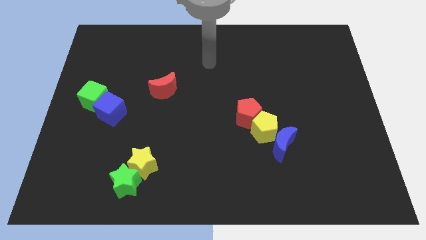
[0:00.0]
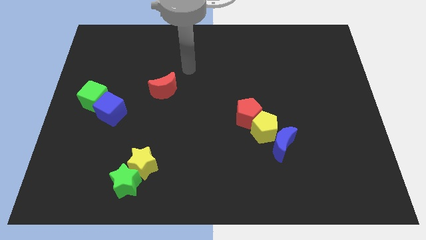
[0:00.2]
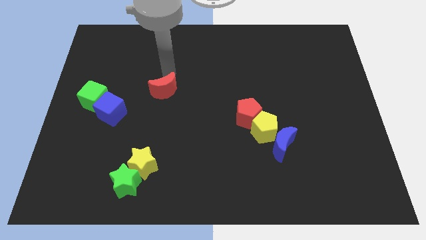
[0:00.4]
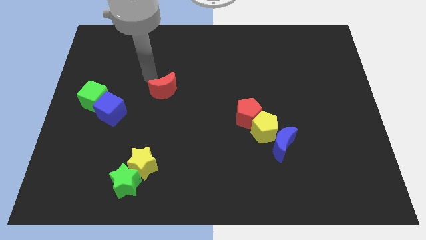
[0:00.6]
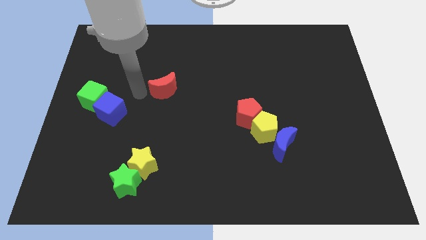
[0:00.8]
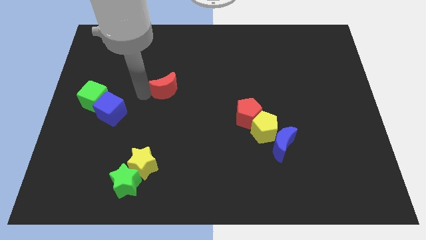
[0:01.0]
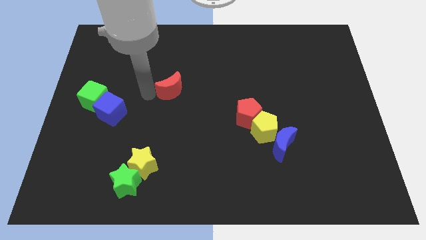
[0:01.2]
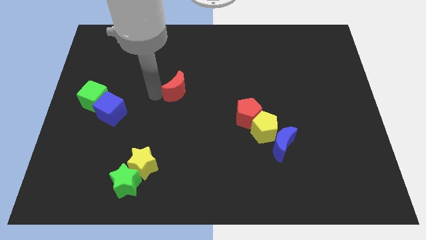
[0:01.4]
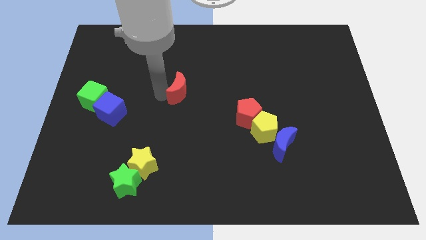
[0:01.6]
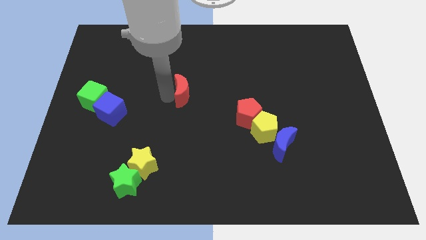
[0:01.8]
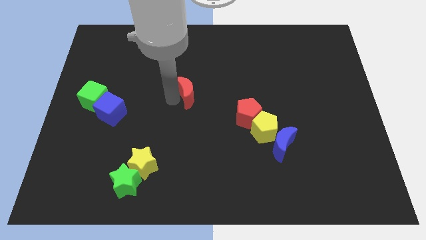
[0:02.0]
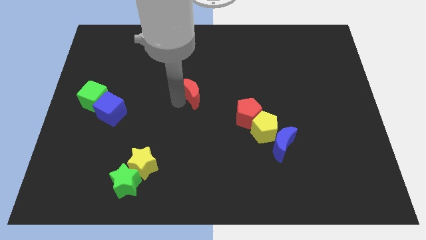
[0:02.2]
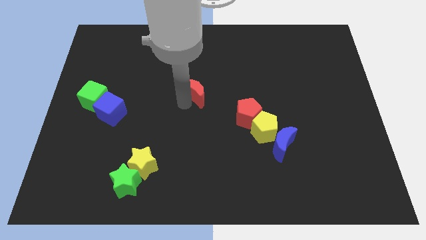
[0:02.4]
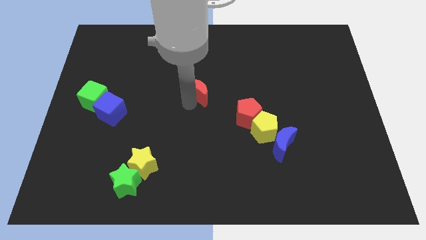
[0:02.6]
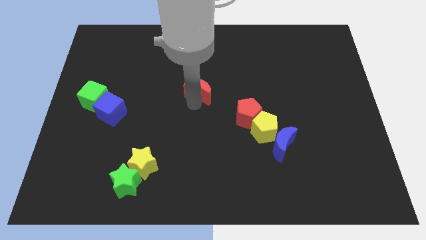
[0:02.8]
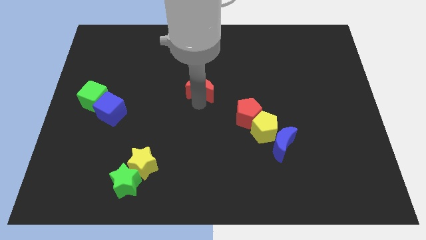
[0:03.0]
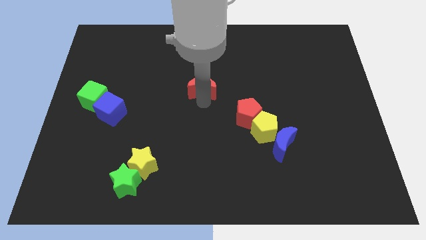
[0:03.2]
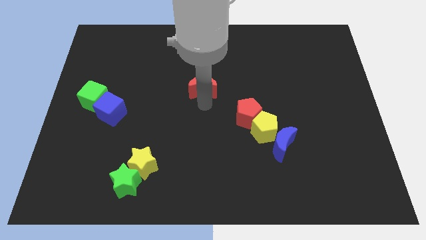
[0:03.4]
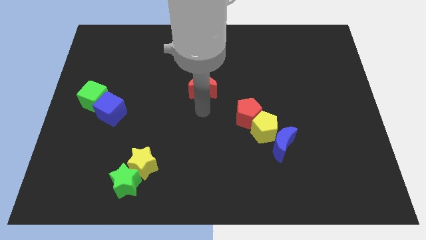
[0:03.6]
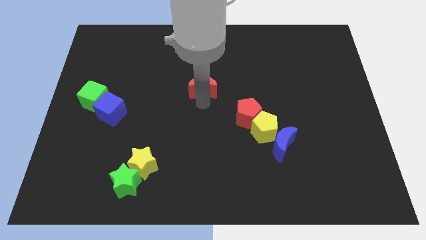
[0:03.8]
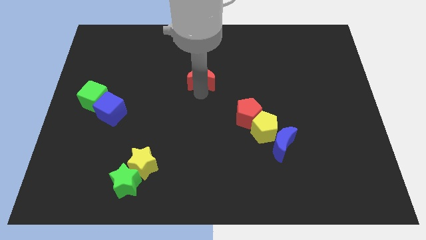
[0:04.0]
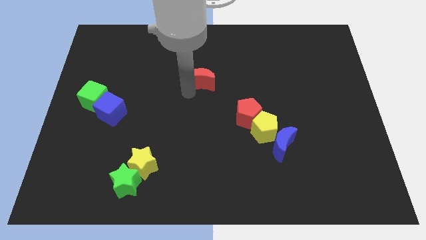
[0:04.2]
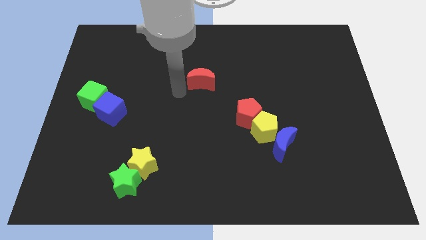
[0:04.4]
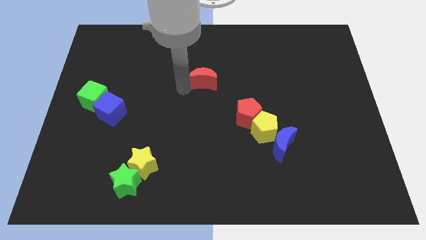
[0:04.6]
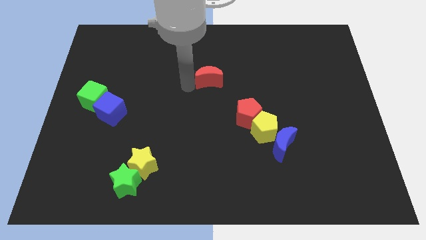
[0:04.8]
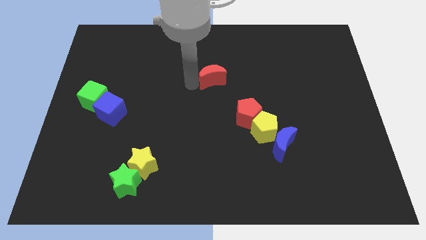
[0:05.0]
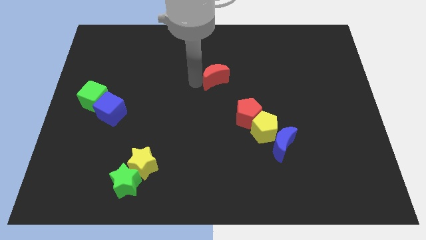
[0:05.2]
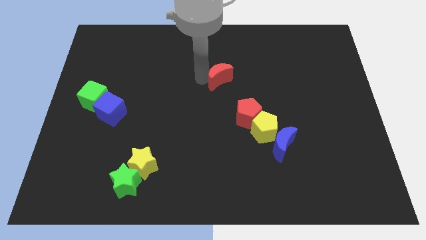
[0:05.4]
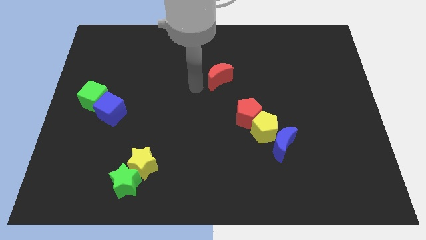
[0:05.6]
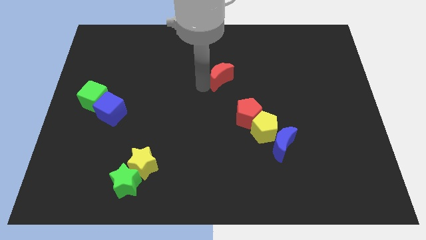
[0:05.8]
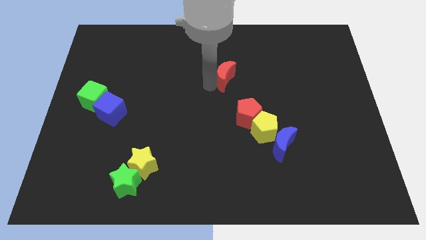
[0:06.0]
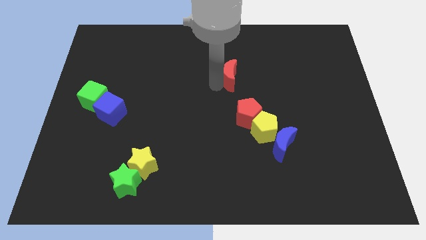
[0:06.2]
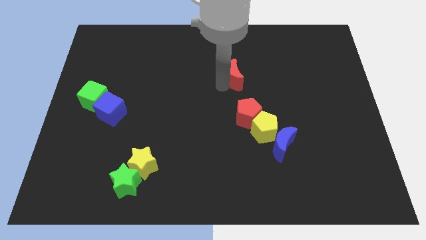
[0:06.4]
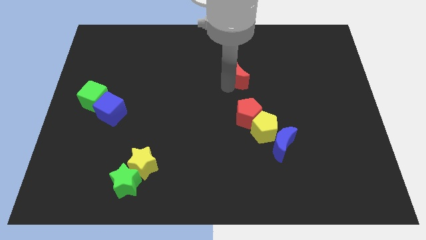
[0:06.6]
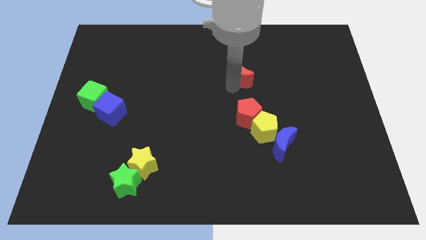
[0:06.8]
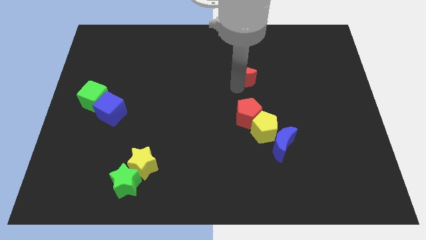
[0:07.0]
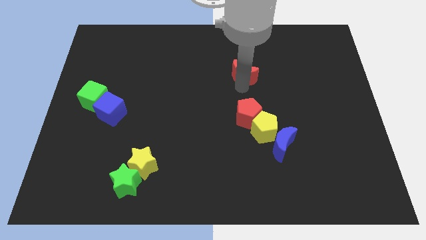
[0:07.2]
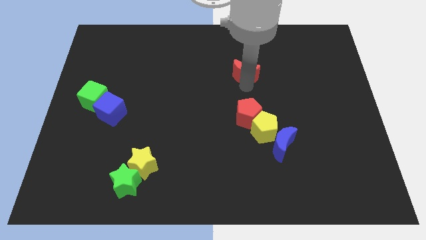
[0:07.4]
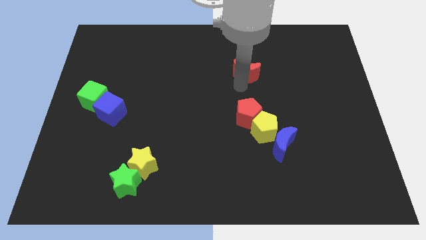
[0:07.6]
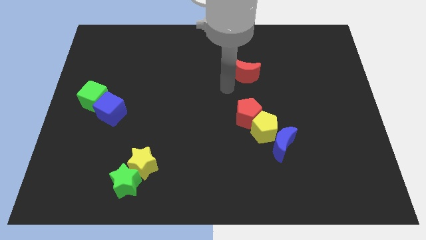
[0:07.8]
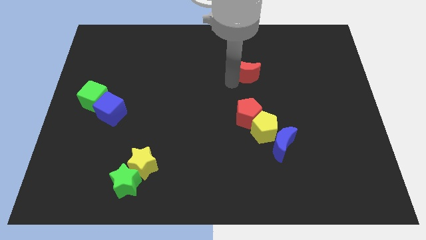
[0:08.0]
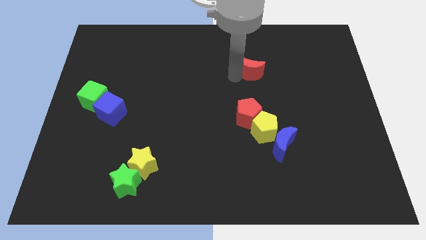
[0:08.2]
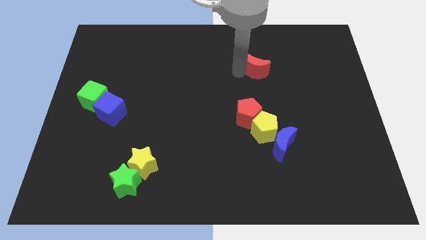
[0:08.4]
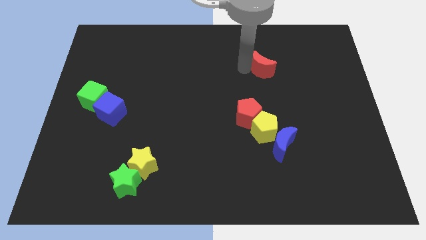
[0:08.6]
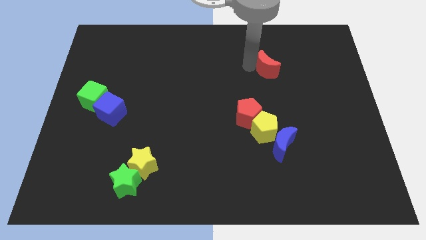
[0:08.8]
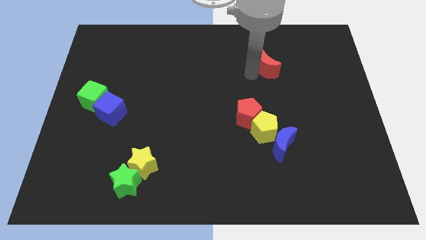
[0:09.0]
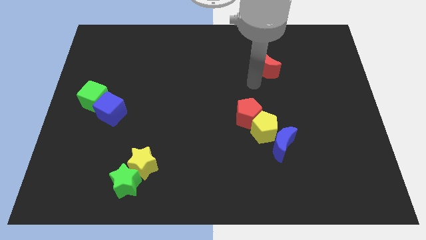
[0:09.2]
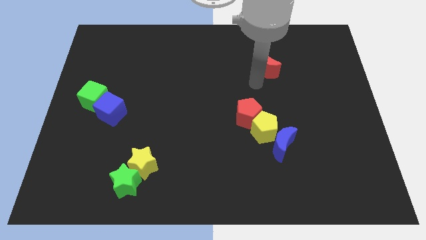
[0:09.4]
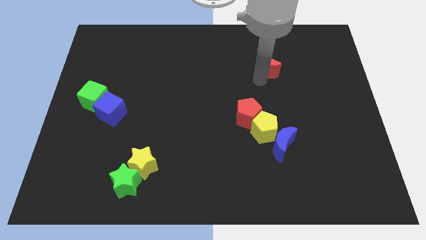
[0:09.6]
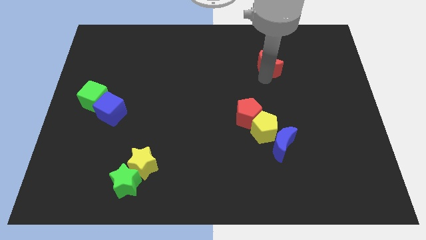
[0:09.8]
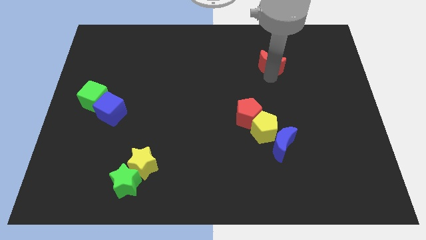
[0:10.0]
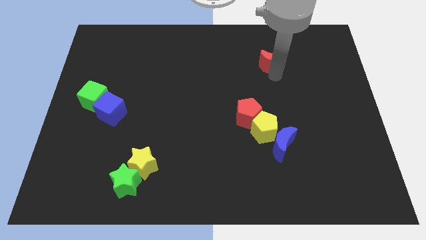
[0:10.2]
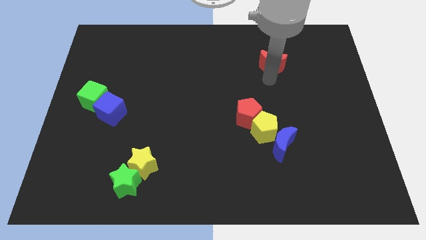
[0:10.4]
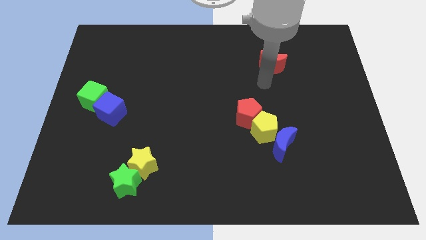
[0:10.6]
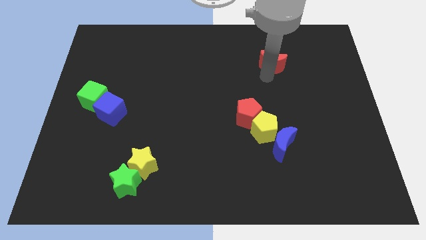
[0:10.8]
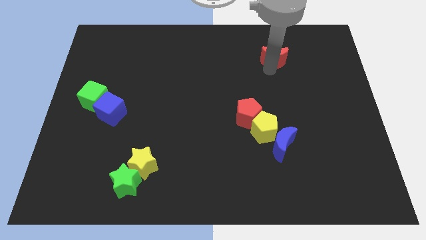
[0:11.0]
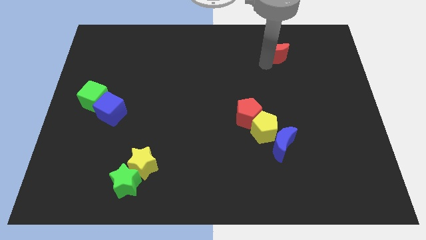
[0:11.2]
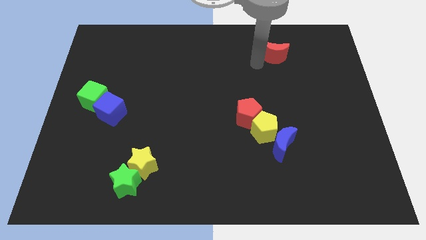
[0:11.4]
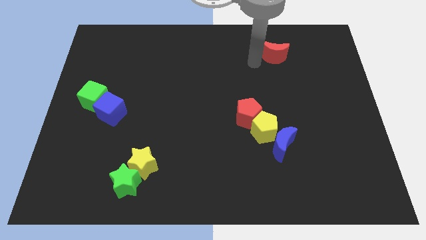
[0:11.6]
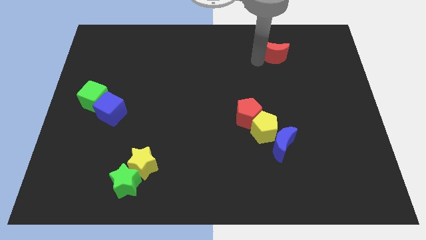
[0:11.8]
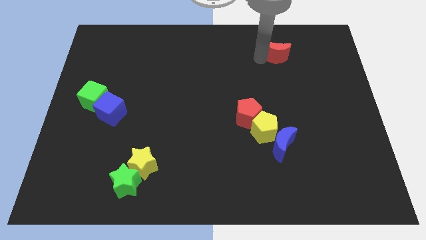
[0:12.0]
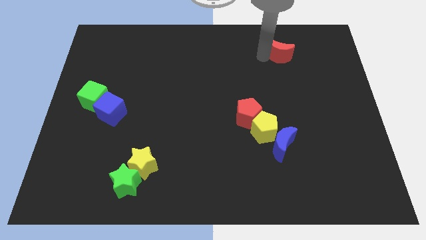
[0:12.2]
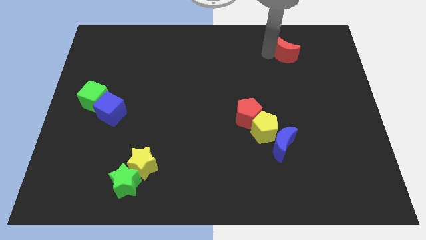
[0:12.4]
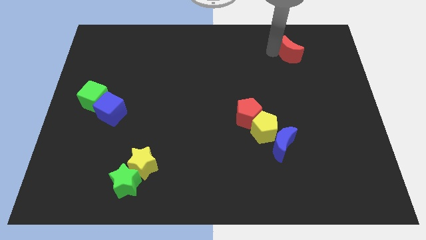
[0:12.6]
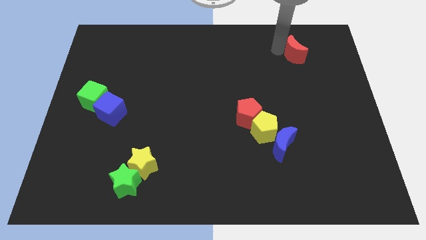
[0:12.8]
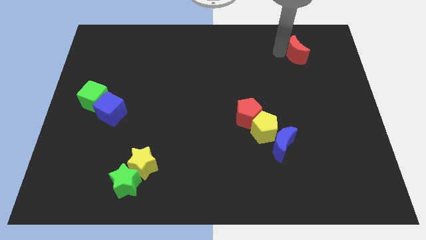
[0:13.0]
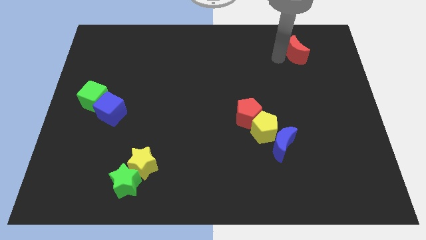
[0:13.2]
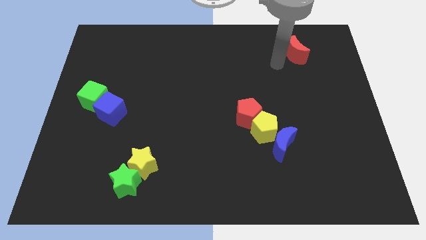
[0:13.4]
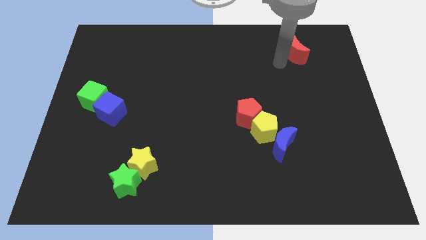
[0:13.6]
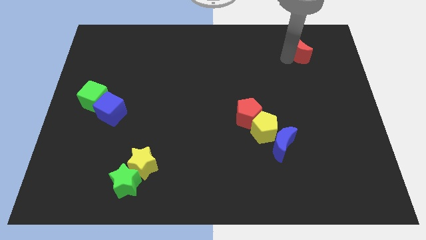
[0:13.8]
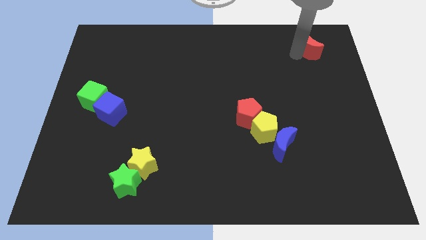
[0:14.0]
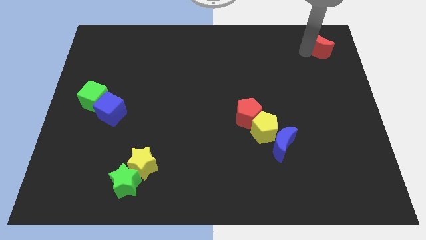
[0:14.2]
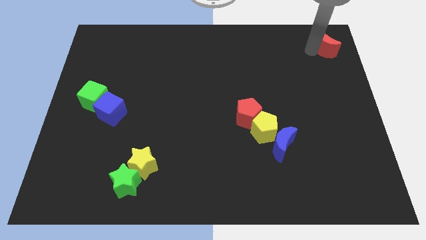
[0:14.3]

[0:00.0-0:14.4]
put the red moon to the upper right corner
